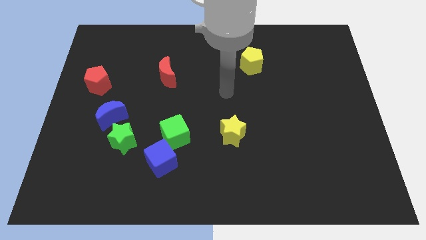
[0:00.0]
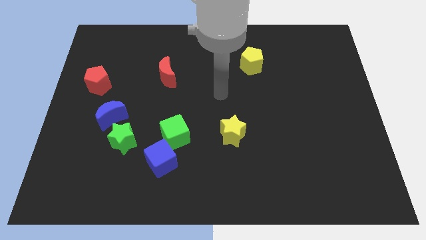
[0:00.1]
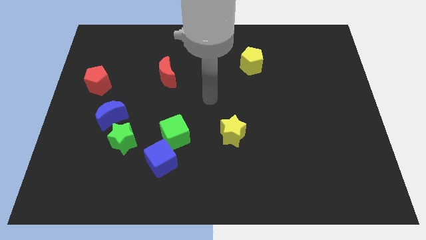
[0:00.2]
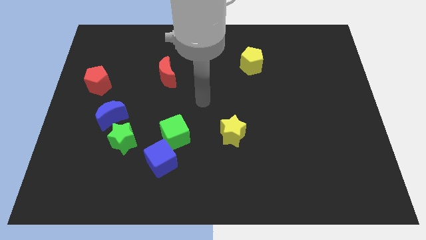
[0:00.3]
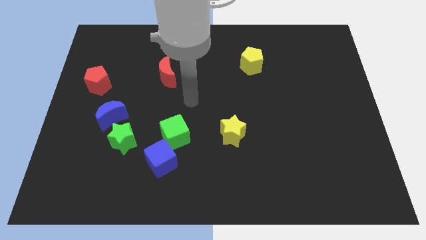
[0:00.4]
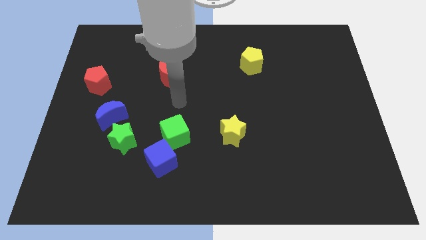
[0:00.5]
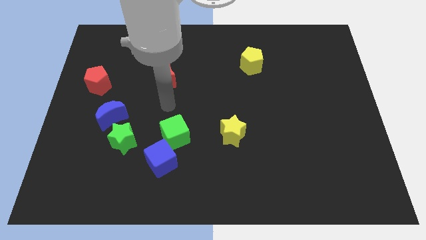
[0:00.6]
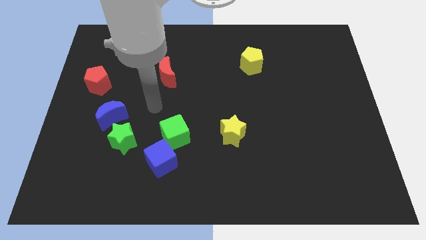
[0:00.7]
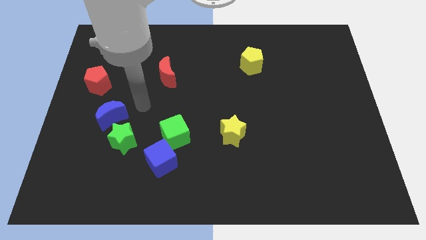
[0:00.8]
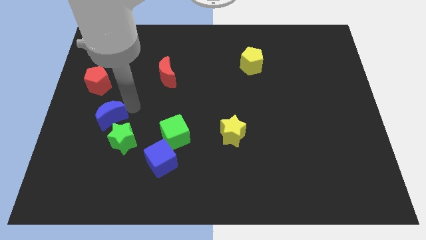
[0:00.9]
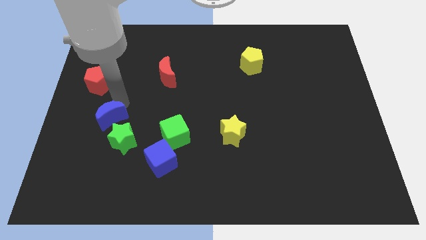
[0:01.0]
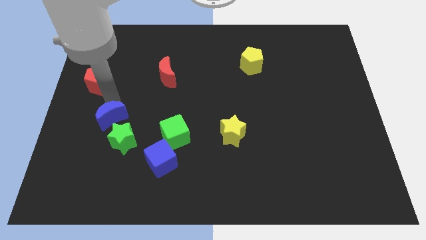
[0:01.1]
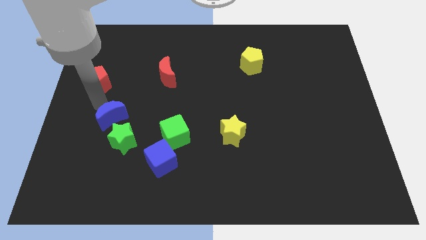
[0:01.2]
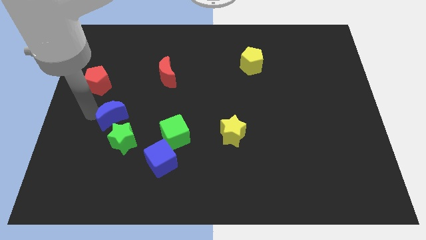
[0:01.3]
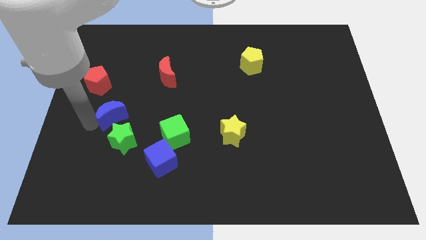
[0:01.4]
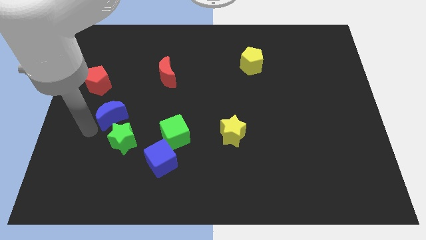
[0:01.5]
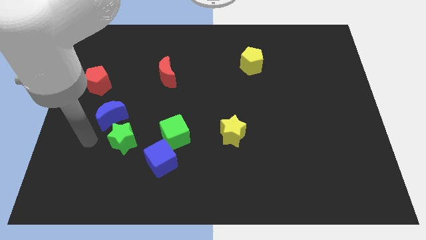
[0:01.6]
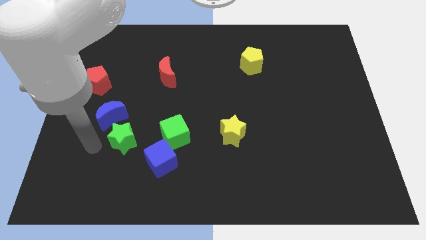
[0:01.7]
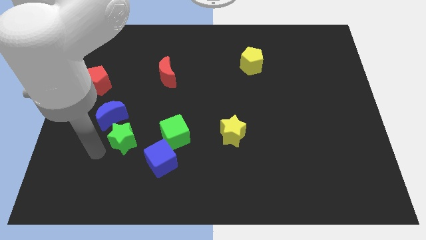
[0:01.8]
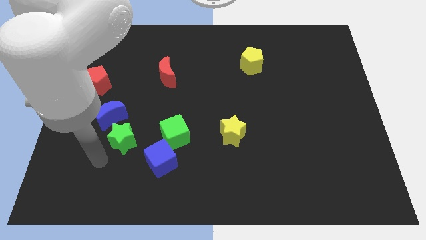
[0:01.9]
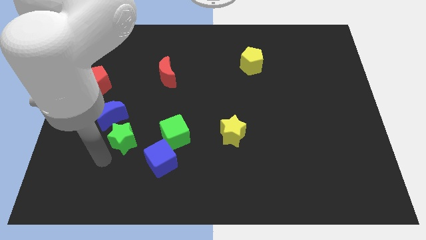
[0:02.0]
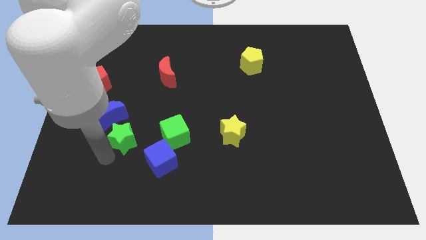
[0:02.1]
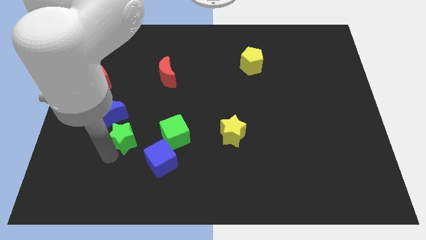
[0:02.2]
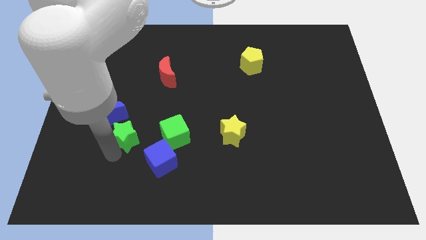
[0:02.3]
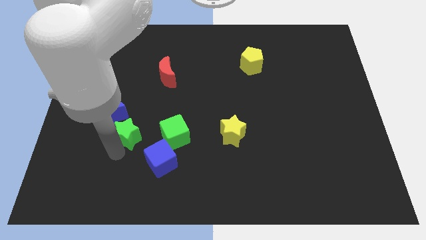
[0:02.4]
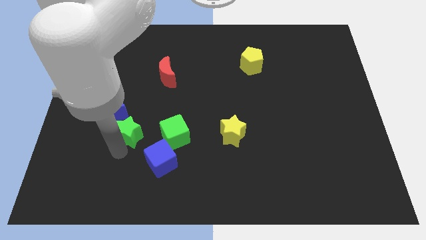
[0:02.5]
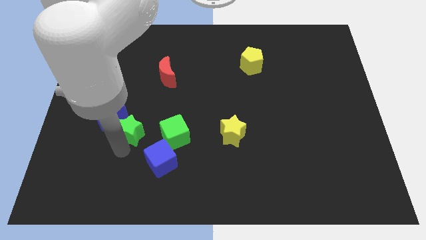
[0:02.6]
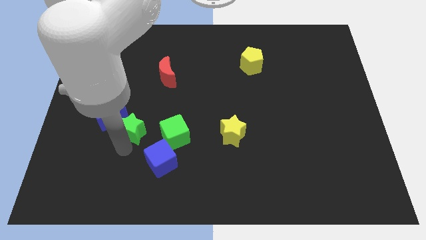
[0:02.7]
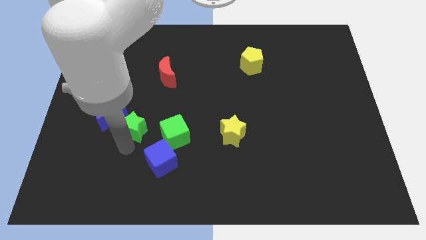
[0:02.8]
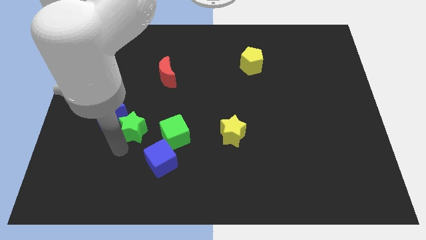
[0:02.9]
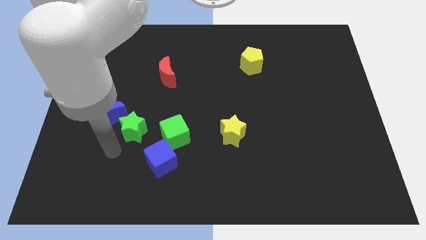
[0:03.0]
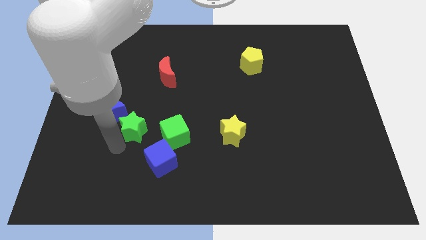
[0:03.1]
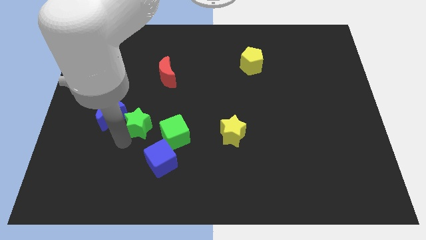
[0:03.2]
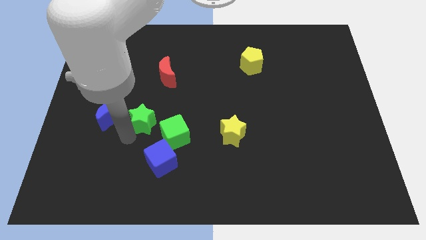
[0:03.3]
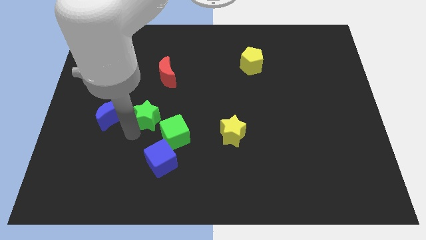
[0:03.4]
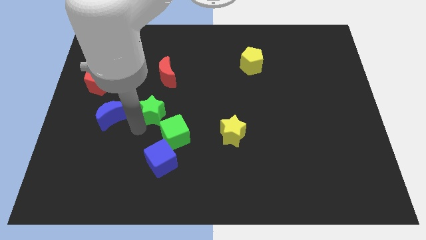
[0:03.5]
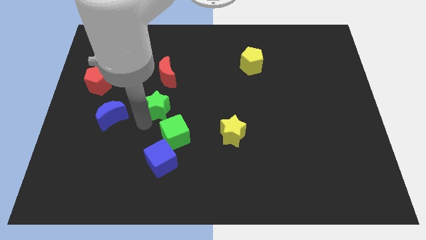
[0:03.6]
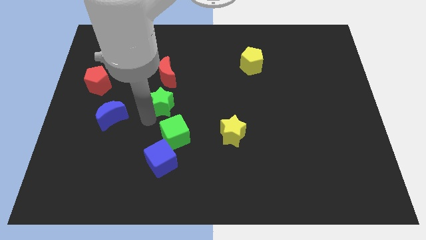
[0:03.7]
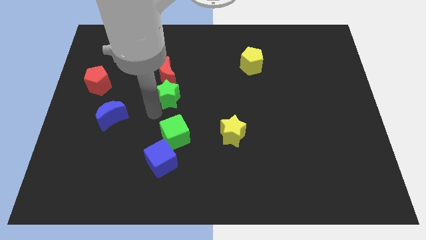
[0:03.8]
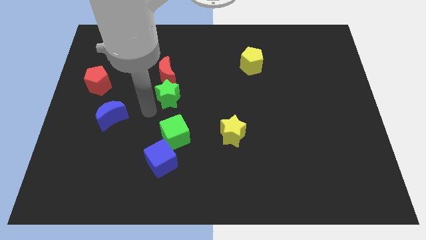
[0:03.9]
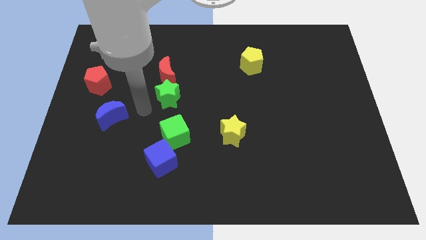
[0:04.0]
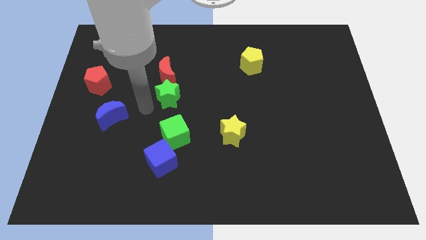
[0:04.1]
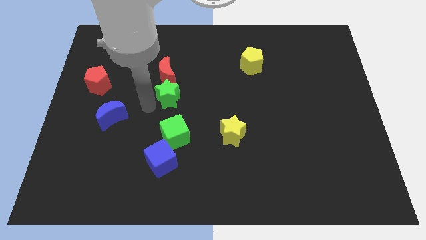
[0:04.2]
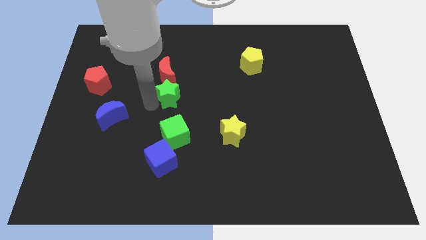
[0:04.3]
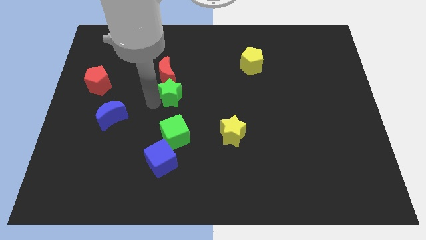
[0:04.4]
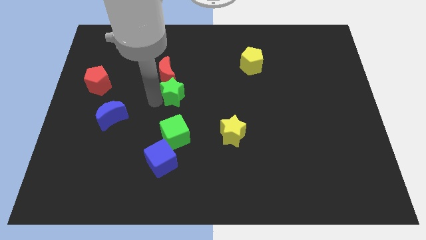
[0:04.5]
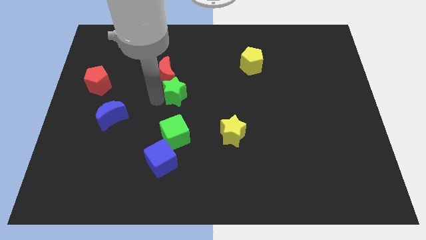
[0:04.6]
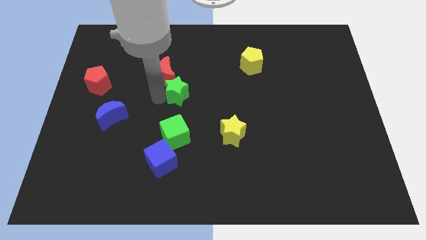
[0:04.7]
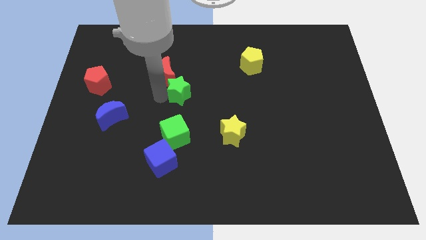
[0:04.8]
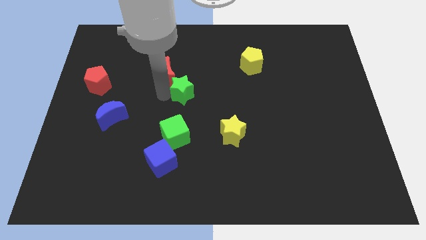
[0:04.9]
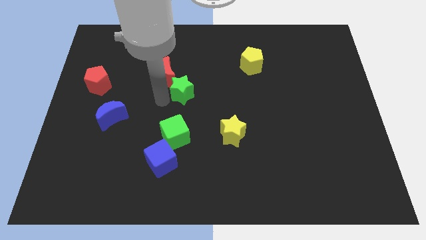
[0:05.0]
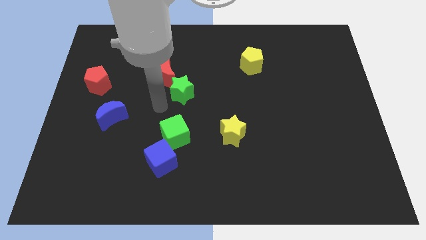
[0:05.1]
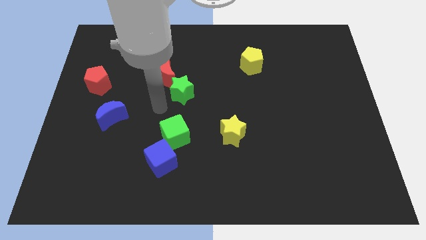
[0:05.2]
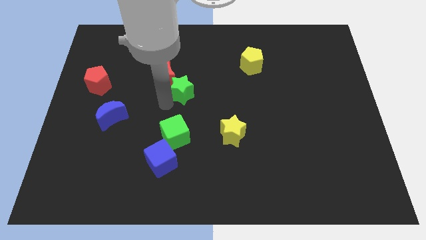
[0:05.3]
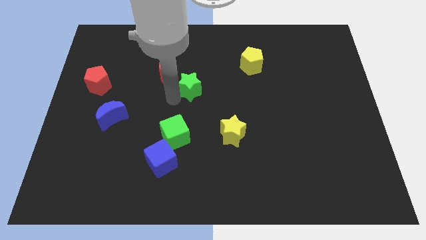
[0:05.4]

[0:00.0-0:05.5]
push the green star just right of the red moon

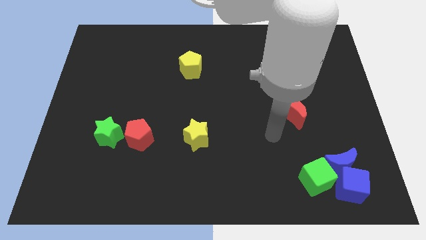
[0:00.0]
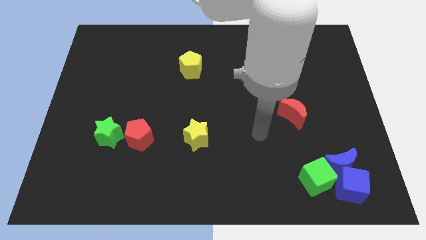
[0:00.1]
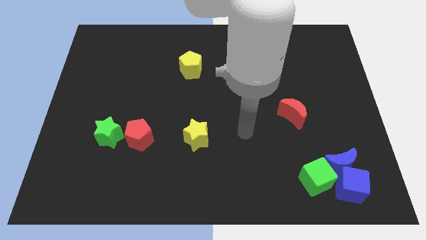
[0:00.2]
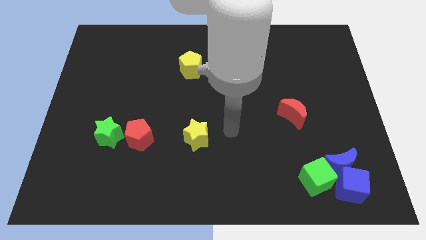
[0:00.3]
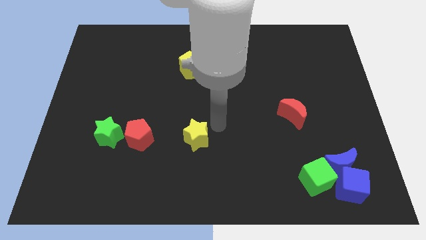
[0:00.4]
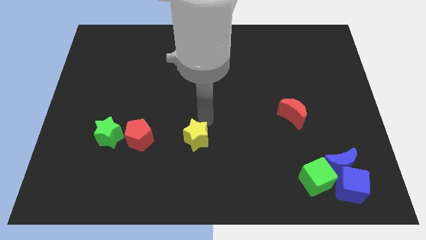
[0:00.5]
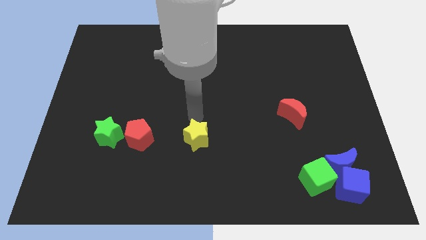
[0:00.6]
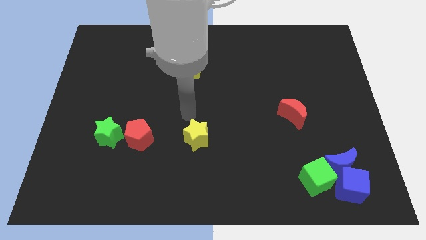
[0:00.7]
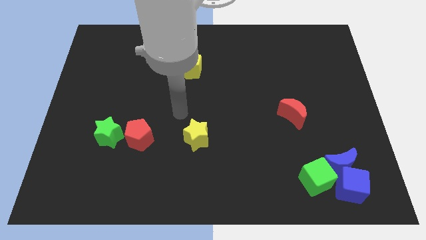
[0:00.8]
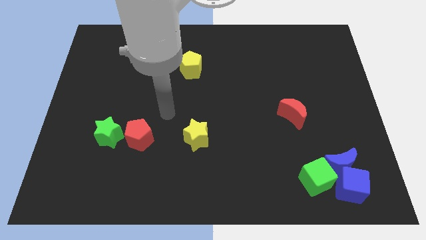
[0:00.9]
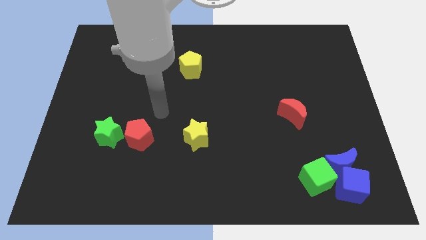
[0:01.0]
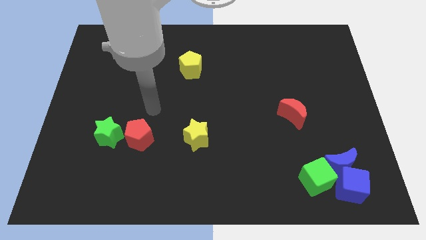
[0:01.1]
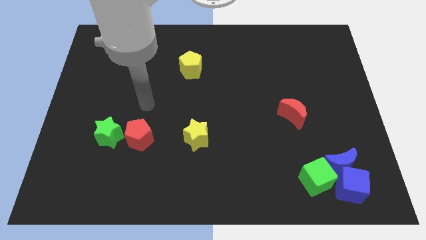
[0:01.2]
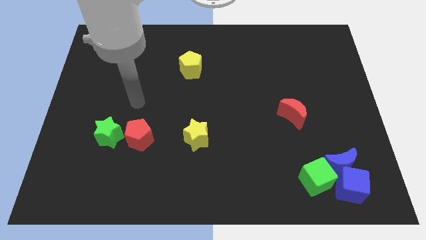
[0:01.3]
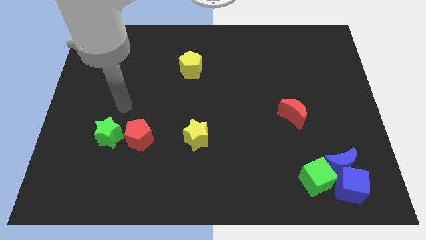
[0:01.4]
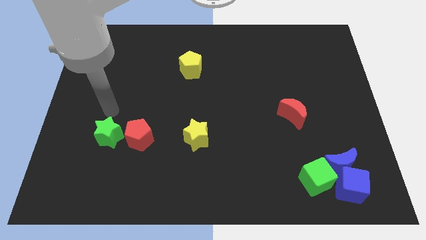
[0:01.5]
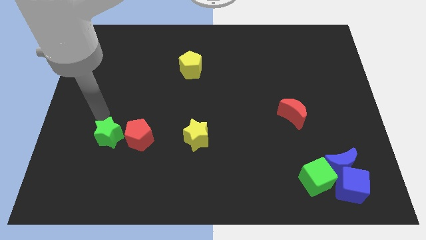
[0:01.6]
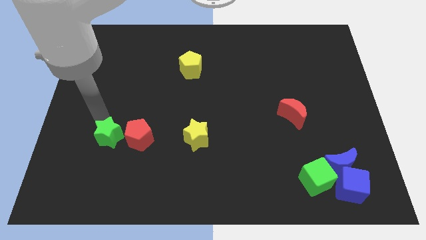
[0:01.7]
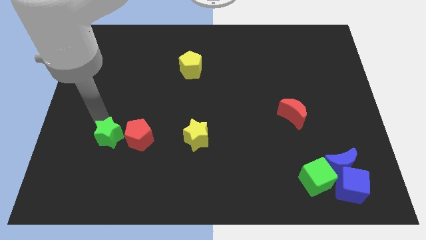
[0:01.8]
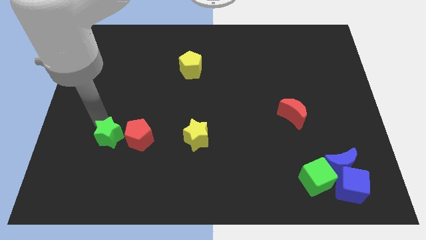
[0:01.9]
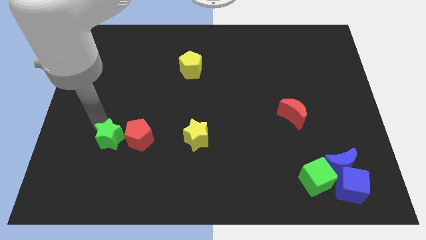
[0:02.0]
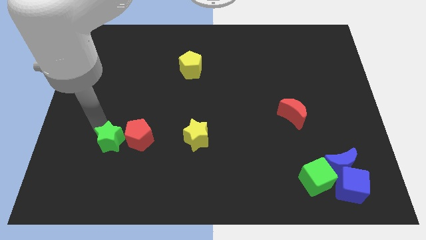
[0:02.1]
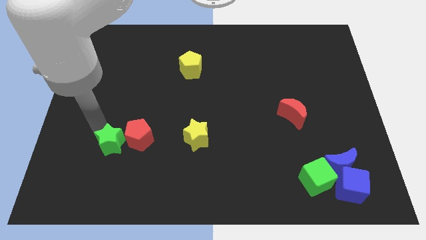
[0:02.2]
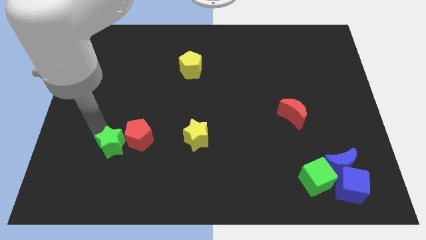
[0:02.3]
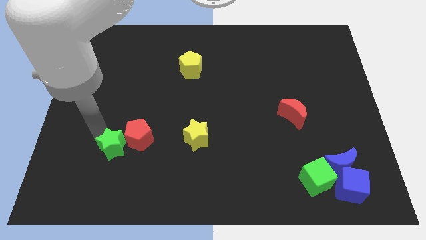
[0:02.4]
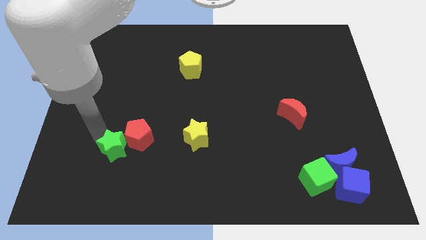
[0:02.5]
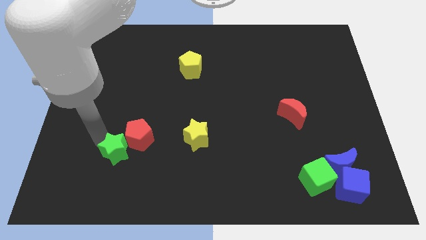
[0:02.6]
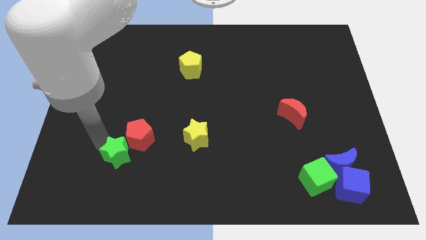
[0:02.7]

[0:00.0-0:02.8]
move the green star below the red pentagon
